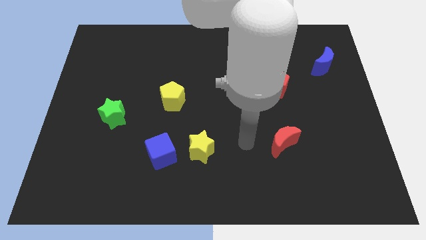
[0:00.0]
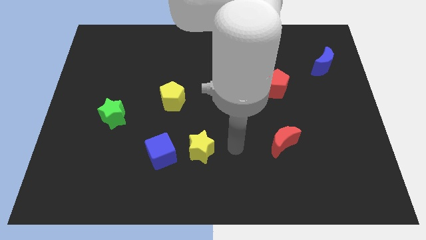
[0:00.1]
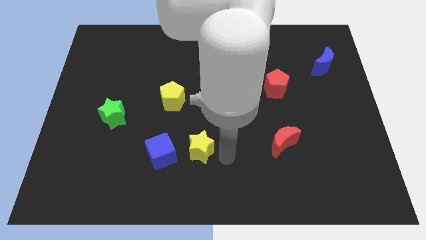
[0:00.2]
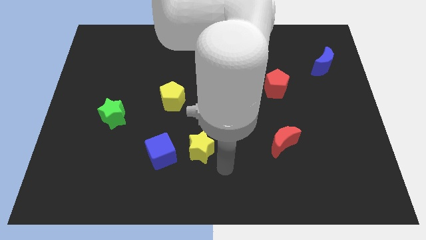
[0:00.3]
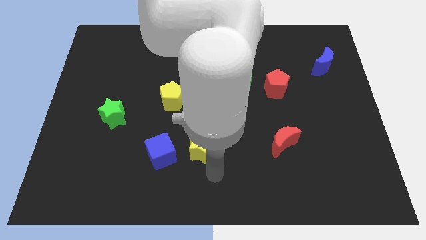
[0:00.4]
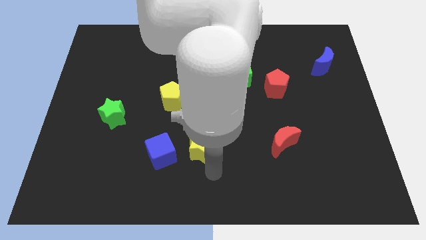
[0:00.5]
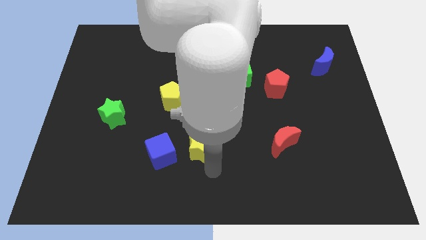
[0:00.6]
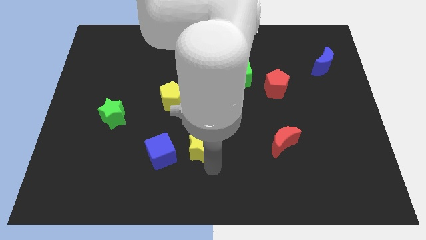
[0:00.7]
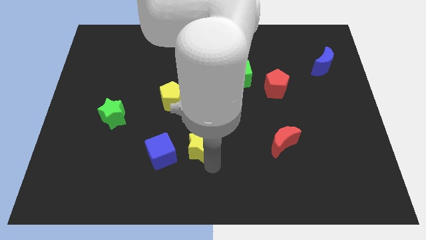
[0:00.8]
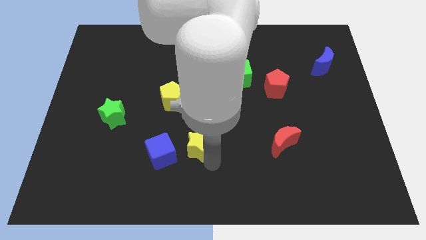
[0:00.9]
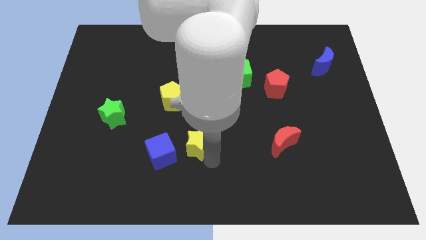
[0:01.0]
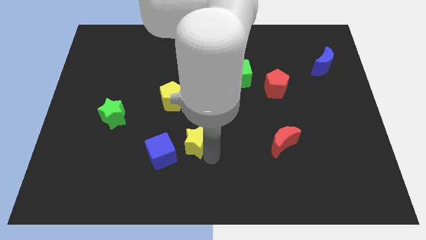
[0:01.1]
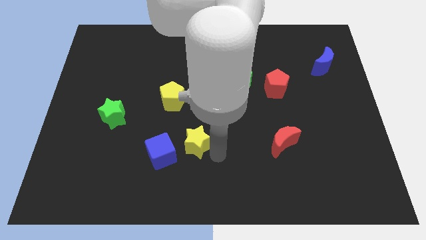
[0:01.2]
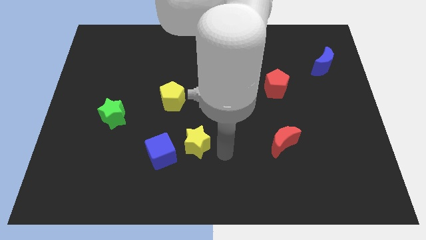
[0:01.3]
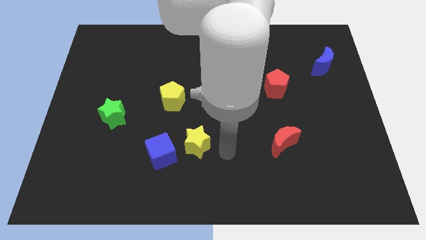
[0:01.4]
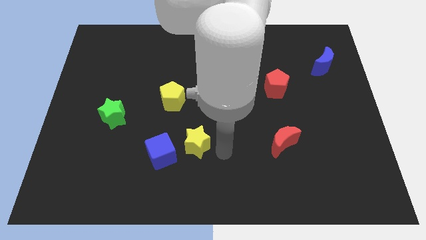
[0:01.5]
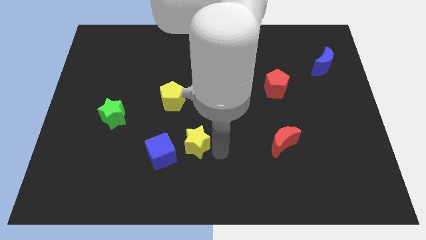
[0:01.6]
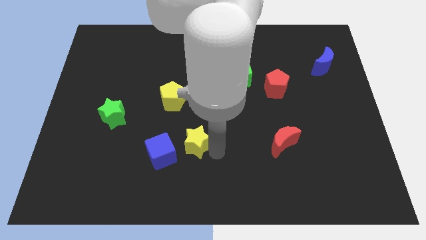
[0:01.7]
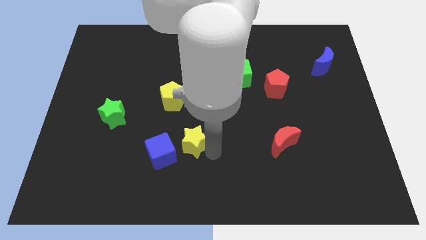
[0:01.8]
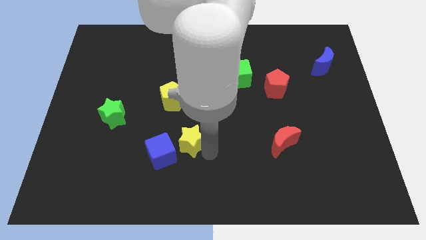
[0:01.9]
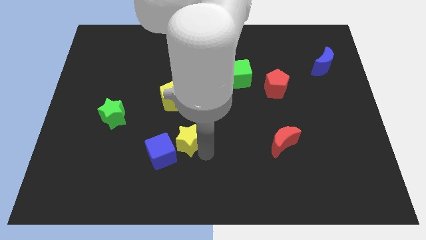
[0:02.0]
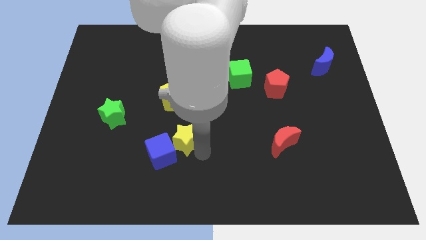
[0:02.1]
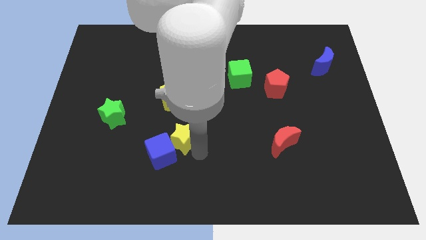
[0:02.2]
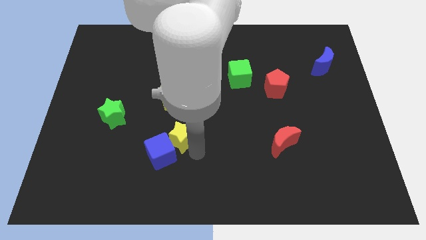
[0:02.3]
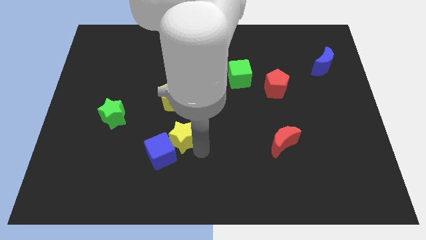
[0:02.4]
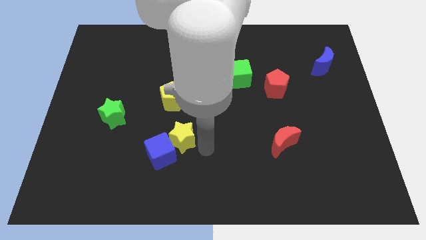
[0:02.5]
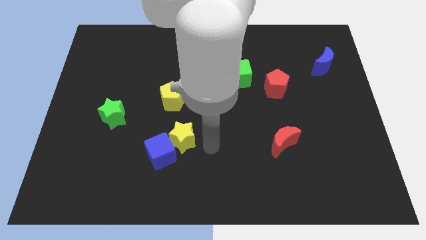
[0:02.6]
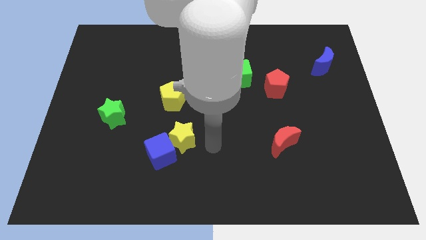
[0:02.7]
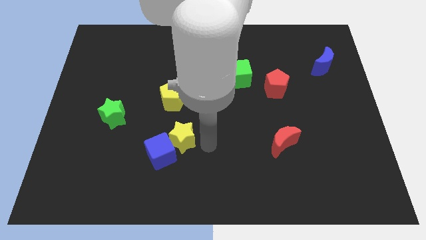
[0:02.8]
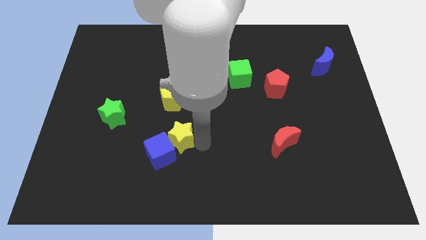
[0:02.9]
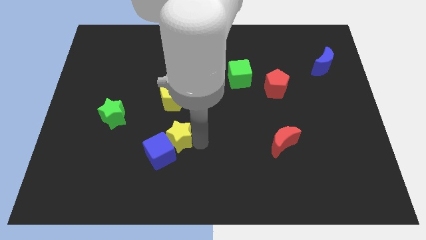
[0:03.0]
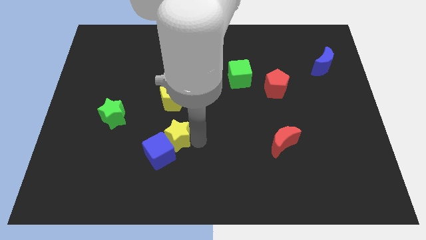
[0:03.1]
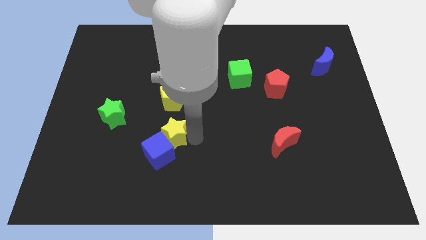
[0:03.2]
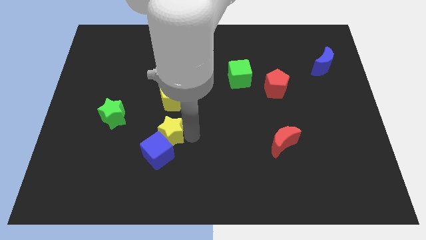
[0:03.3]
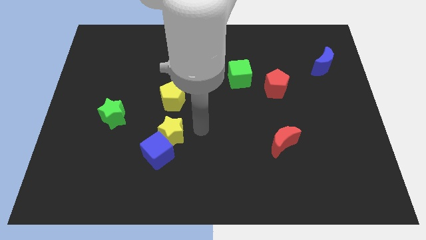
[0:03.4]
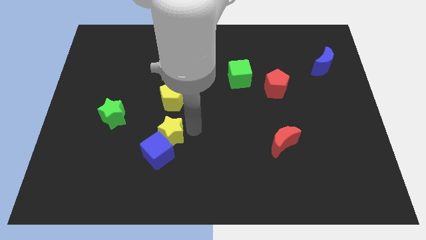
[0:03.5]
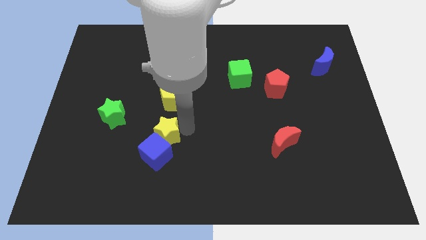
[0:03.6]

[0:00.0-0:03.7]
push the yellow star a bit to the left

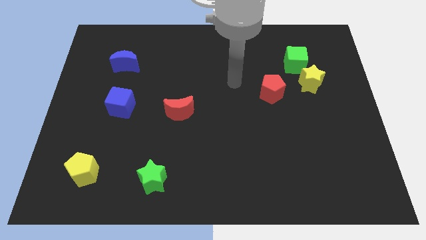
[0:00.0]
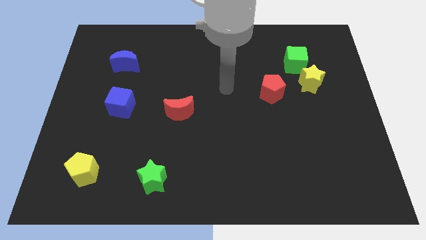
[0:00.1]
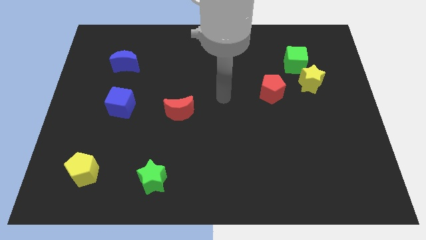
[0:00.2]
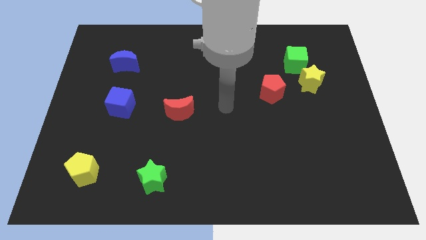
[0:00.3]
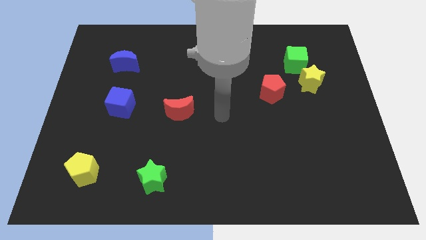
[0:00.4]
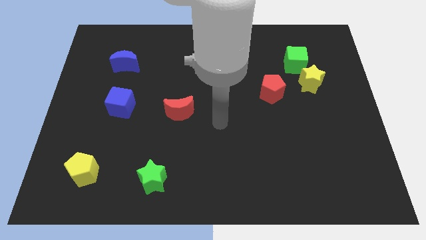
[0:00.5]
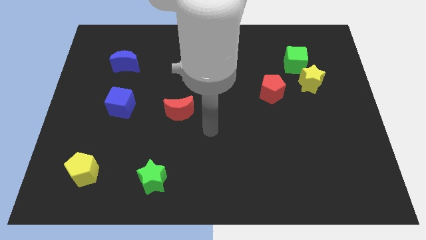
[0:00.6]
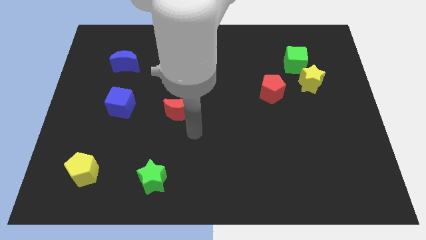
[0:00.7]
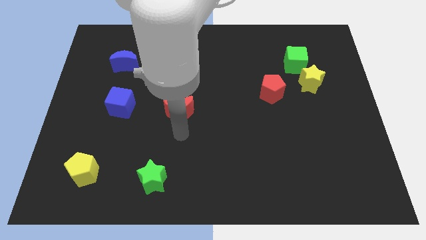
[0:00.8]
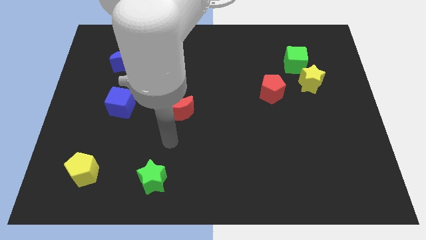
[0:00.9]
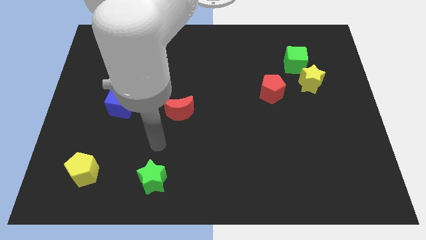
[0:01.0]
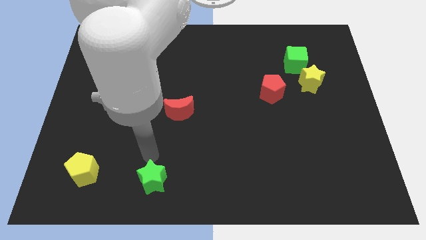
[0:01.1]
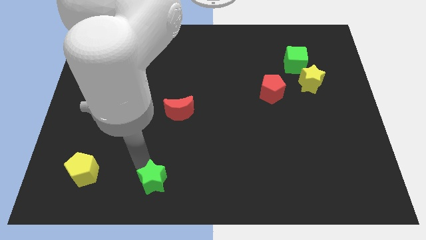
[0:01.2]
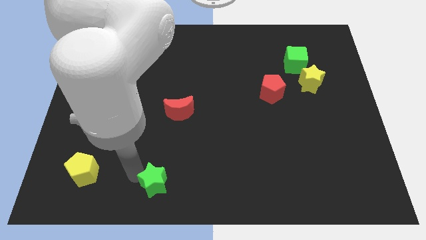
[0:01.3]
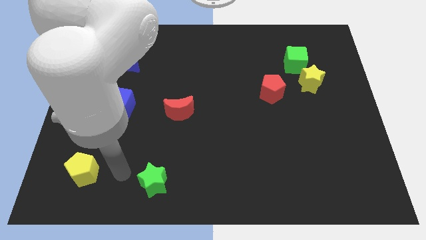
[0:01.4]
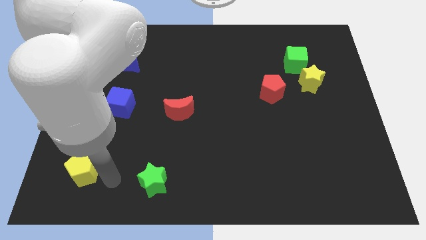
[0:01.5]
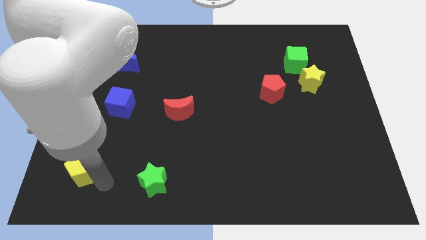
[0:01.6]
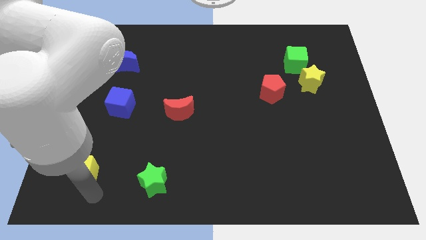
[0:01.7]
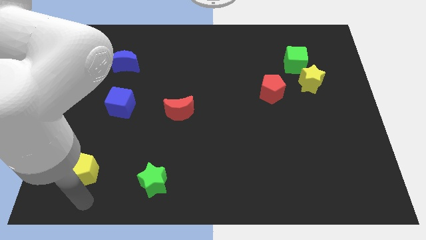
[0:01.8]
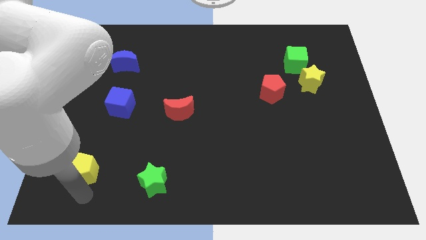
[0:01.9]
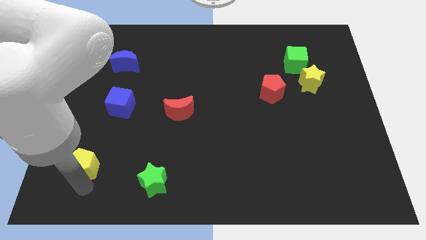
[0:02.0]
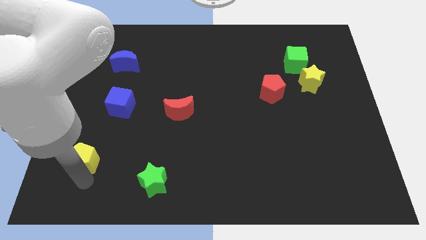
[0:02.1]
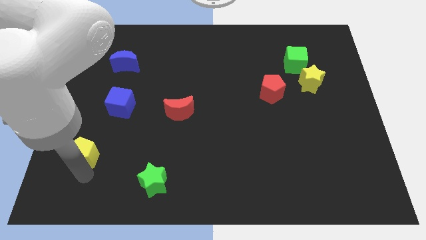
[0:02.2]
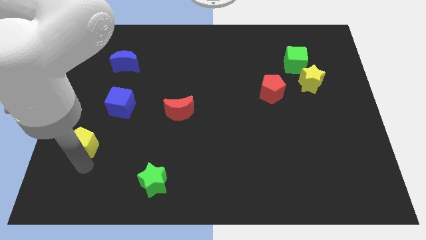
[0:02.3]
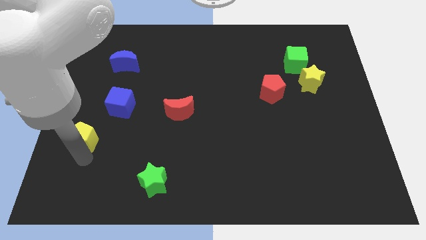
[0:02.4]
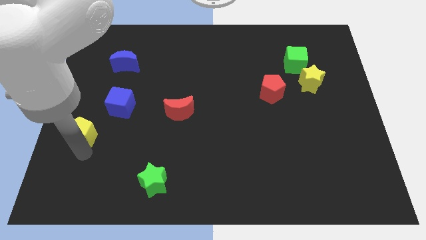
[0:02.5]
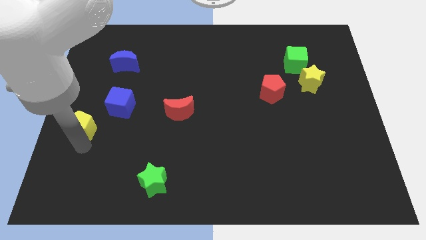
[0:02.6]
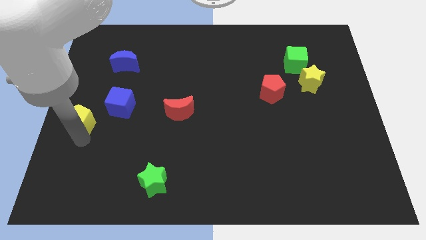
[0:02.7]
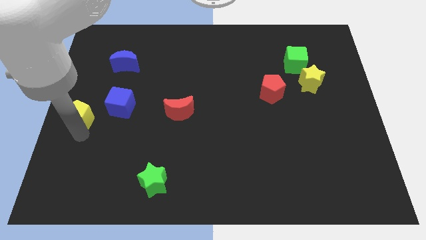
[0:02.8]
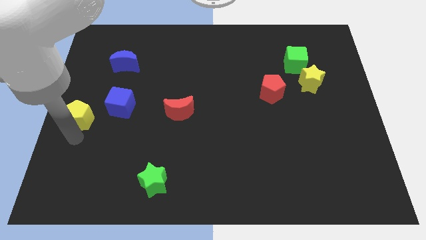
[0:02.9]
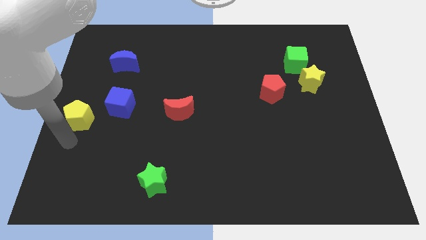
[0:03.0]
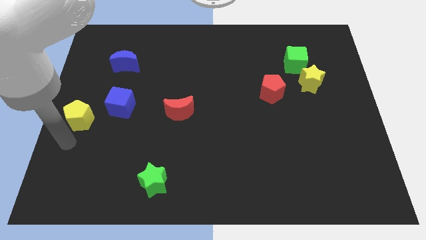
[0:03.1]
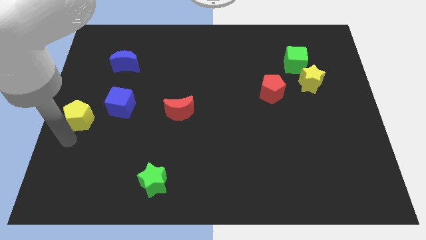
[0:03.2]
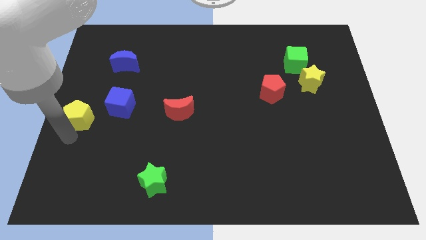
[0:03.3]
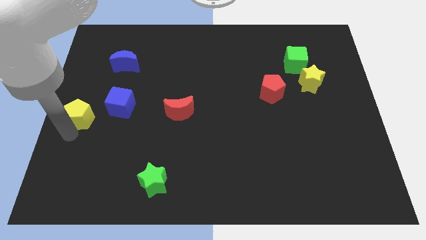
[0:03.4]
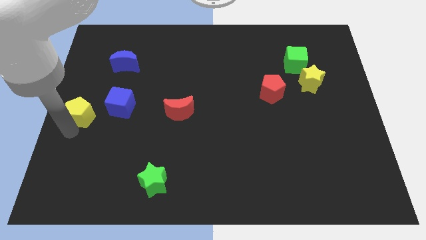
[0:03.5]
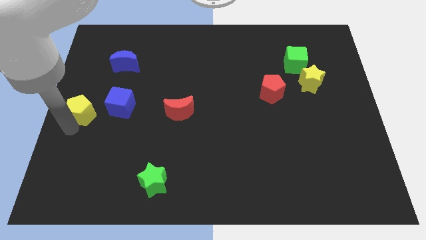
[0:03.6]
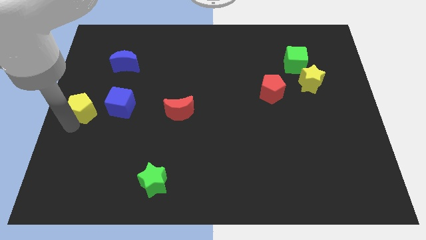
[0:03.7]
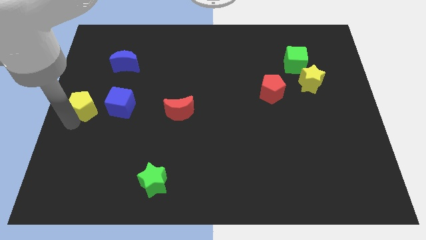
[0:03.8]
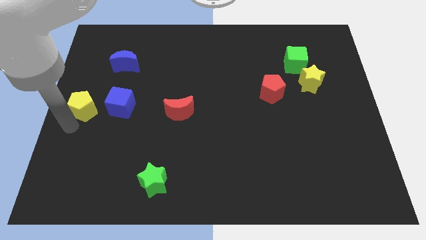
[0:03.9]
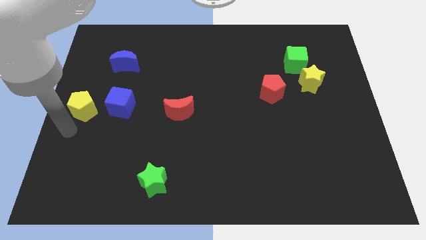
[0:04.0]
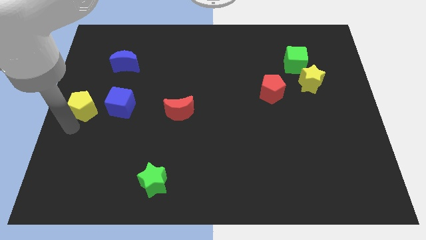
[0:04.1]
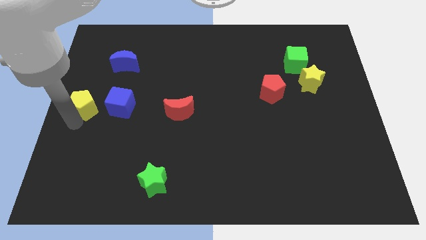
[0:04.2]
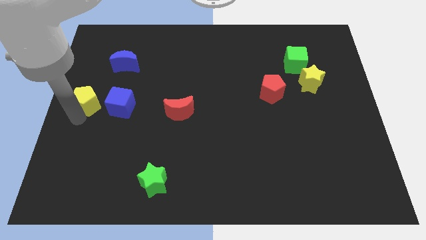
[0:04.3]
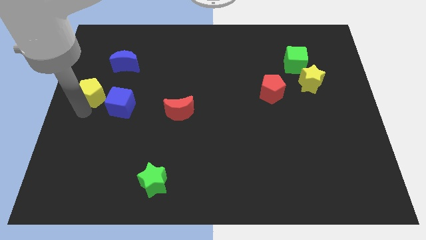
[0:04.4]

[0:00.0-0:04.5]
slide the yellow pentagon up

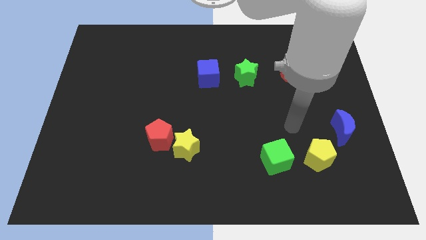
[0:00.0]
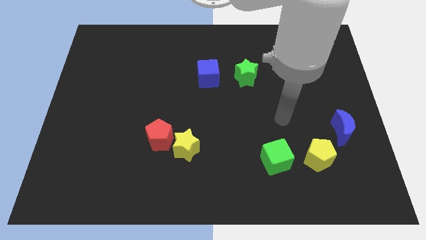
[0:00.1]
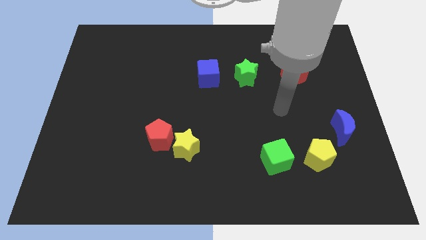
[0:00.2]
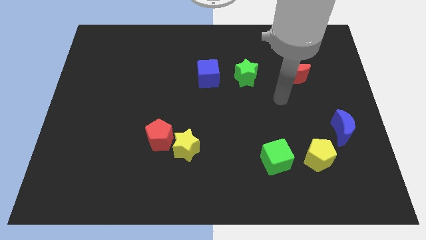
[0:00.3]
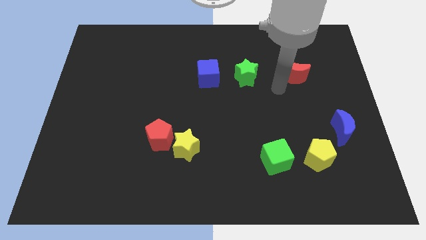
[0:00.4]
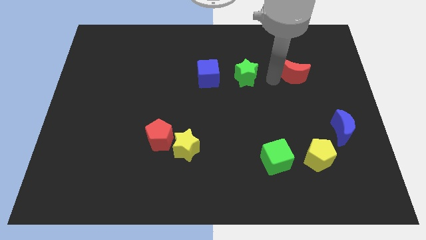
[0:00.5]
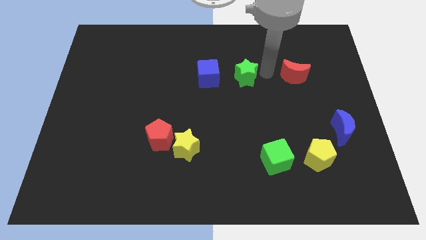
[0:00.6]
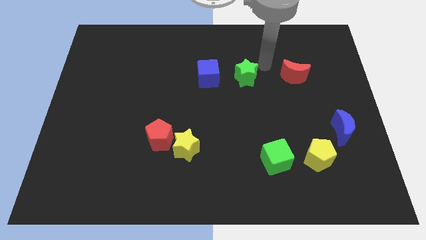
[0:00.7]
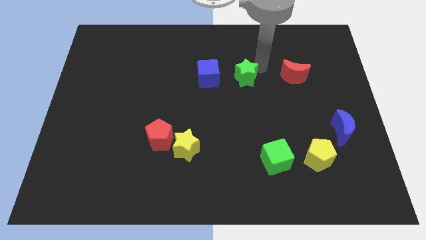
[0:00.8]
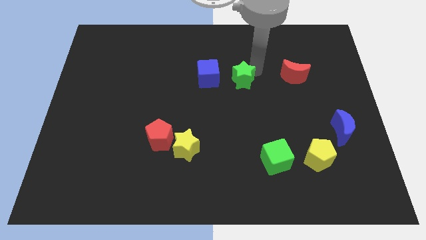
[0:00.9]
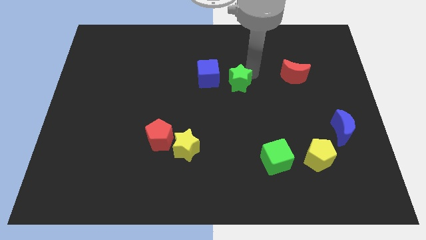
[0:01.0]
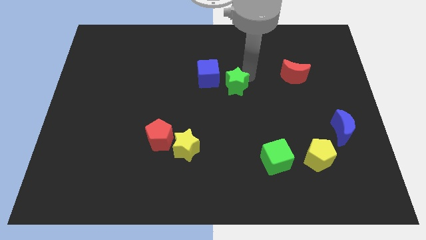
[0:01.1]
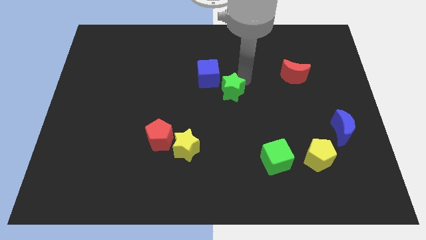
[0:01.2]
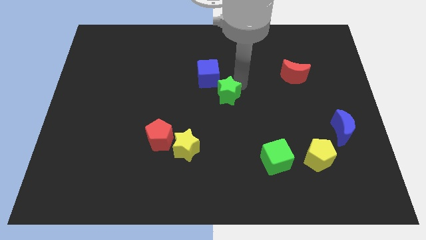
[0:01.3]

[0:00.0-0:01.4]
move the green star slightly diagonally downwards and to the left
